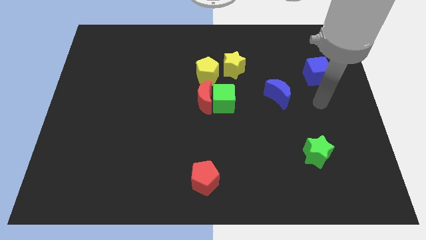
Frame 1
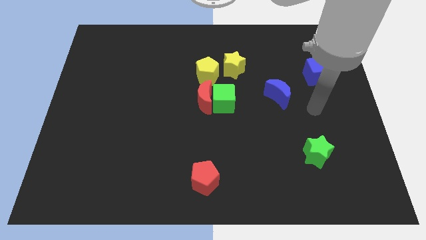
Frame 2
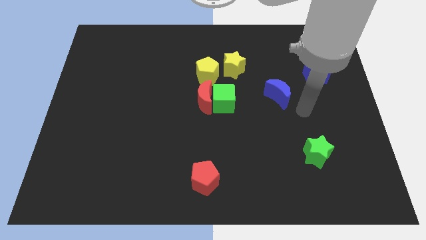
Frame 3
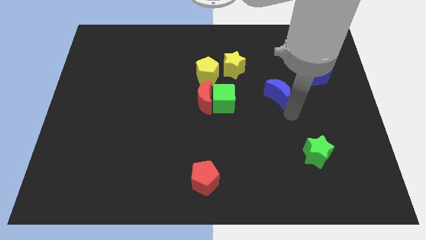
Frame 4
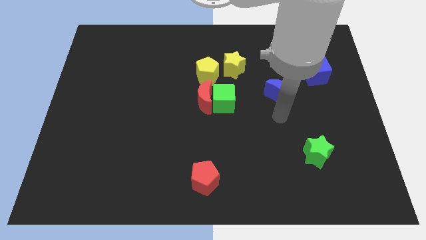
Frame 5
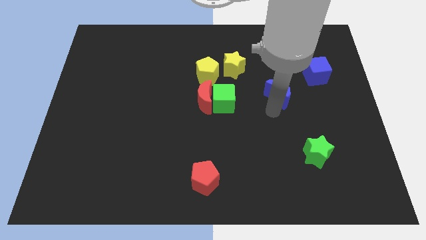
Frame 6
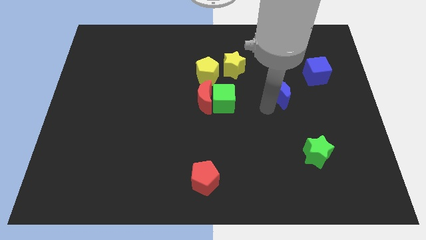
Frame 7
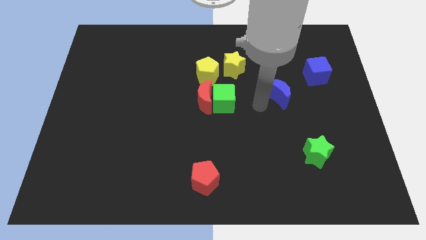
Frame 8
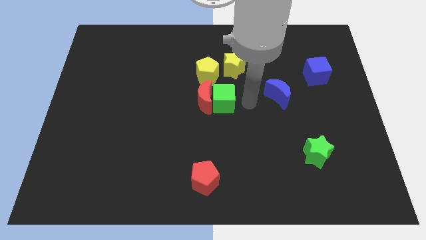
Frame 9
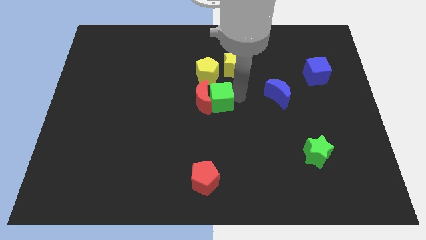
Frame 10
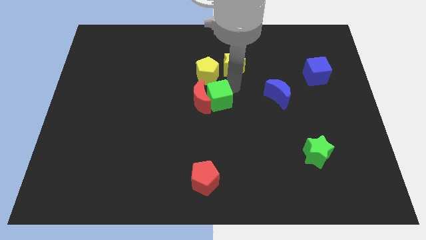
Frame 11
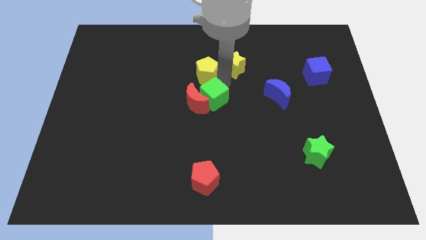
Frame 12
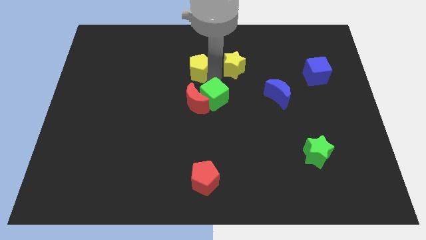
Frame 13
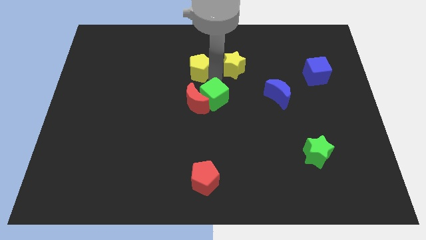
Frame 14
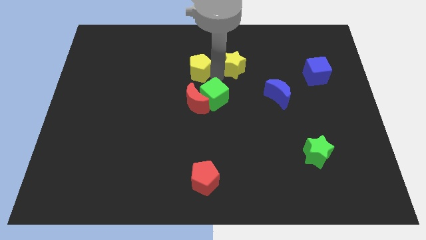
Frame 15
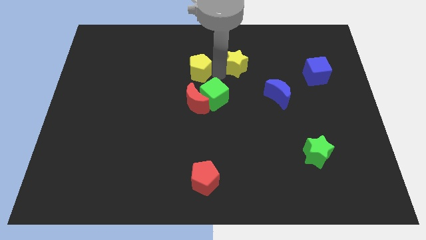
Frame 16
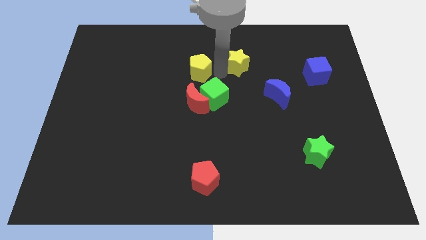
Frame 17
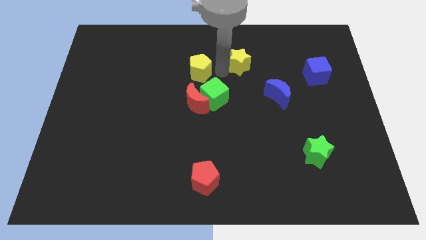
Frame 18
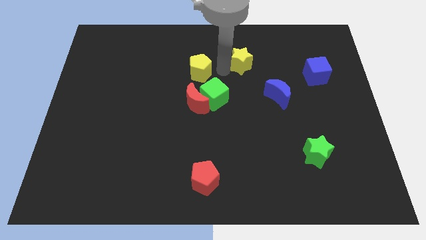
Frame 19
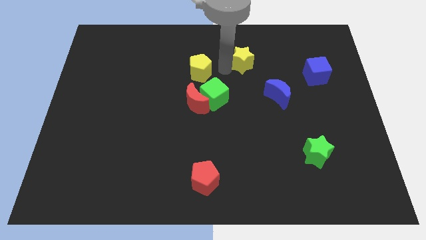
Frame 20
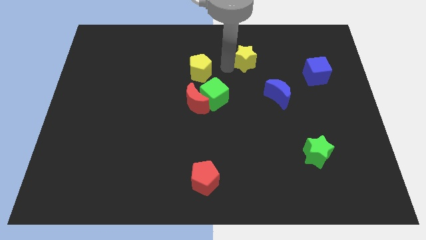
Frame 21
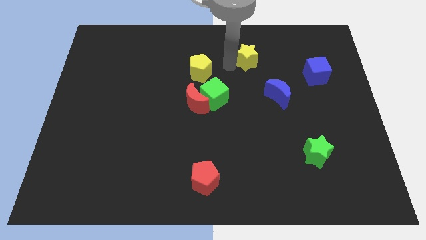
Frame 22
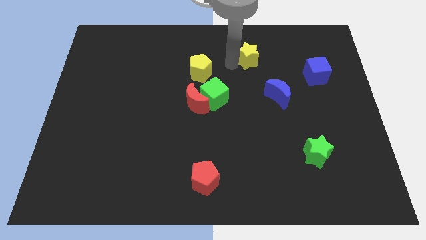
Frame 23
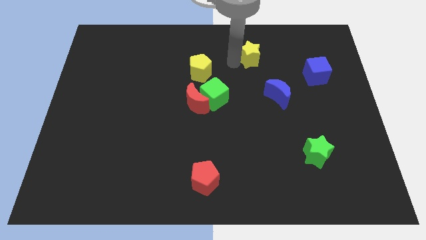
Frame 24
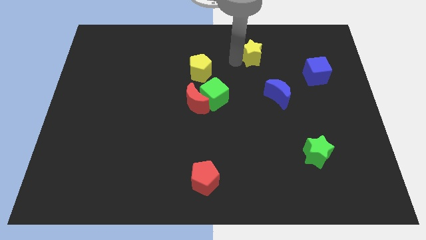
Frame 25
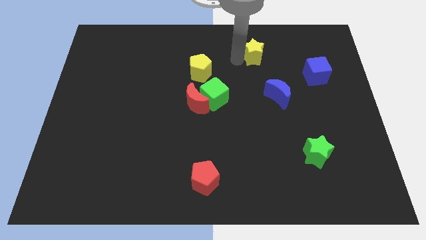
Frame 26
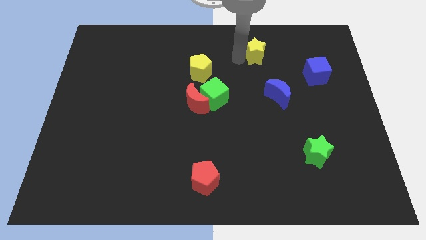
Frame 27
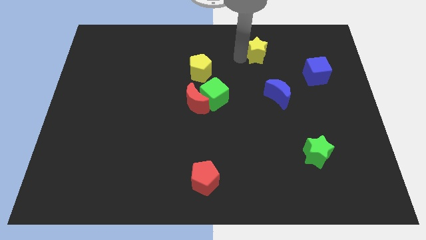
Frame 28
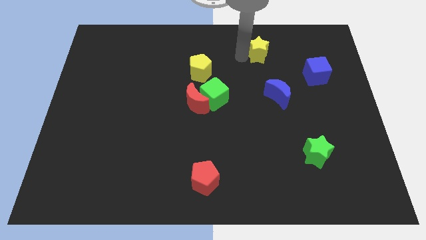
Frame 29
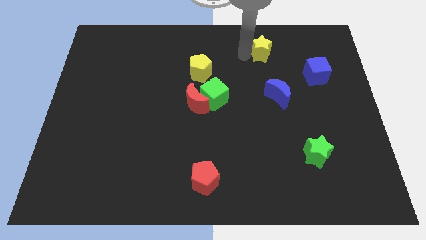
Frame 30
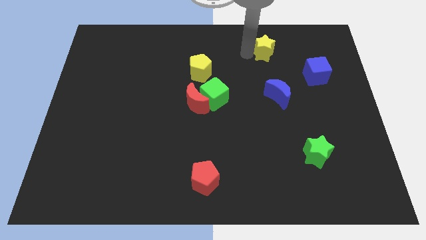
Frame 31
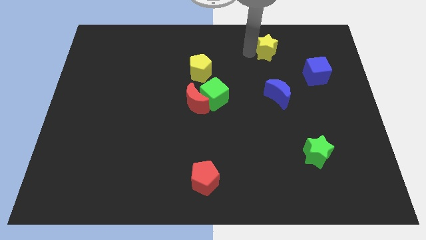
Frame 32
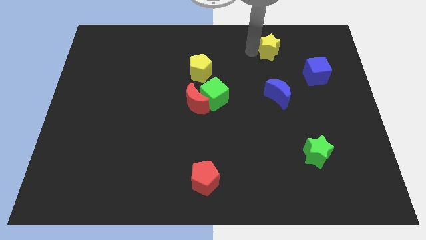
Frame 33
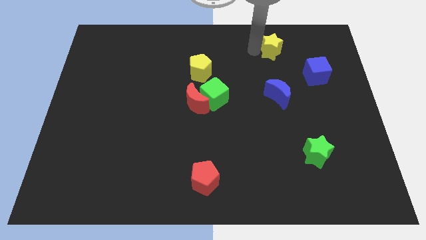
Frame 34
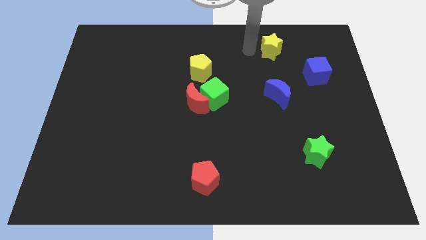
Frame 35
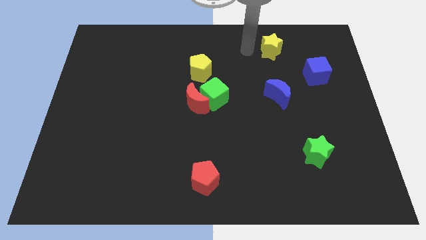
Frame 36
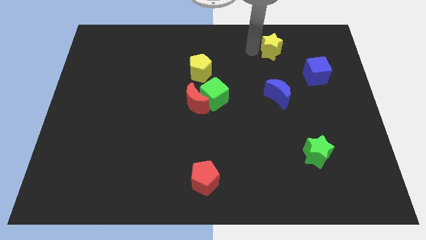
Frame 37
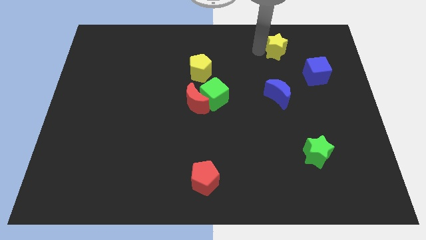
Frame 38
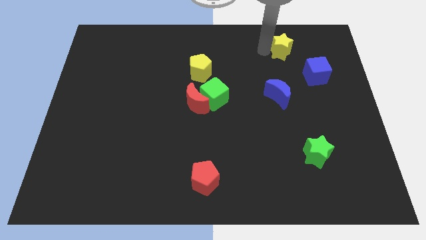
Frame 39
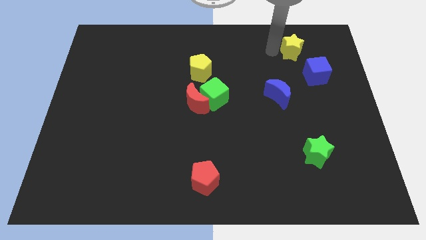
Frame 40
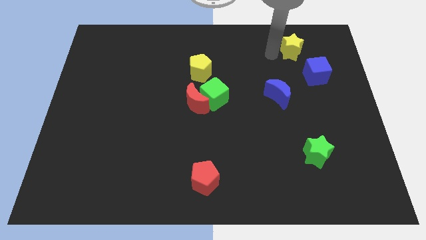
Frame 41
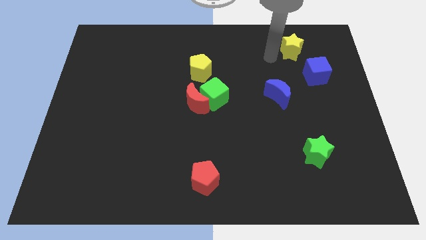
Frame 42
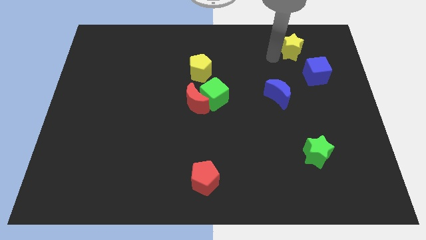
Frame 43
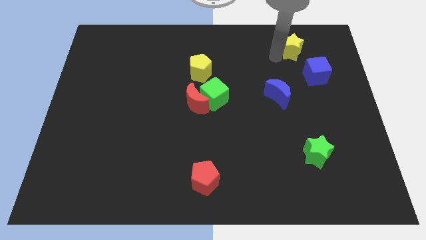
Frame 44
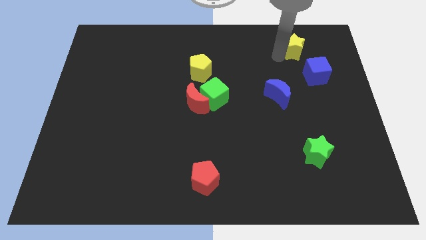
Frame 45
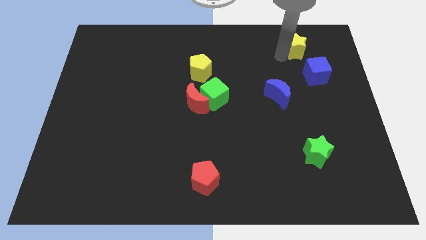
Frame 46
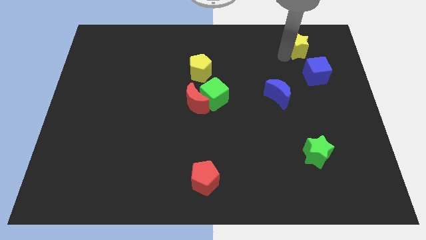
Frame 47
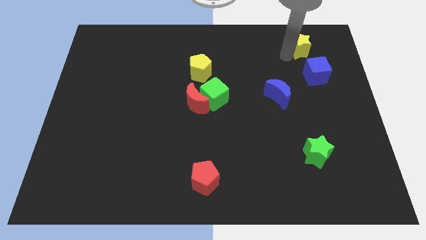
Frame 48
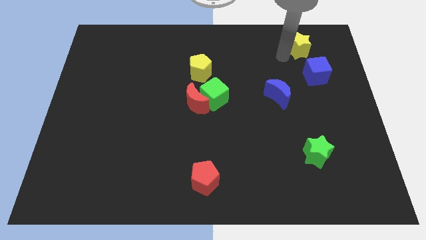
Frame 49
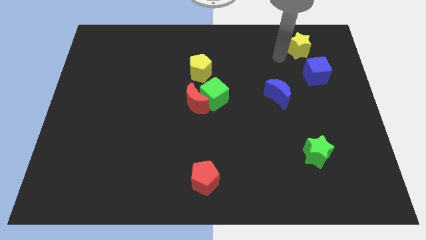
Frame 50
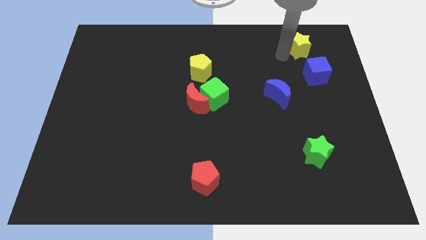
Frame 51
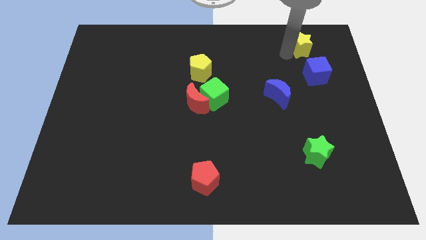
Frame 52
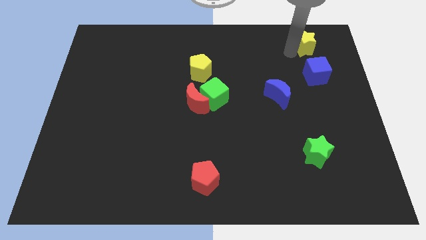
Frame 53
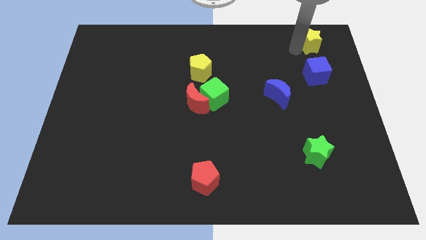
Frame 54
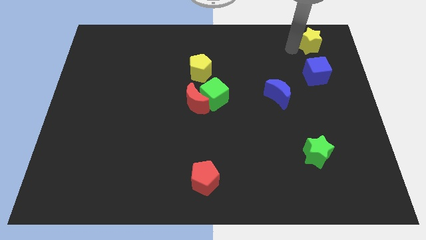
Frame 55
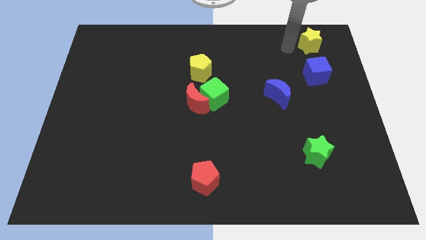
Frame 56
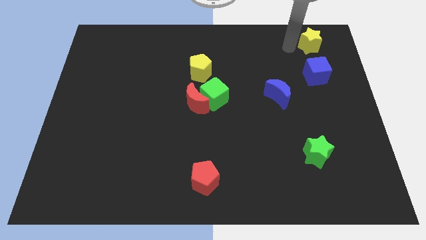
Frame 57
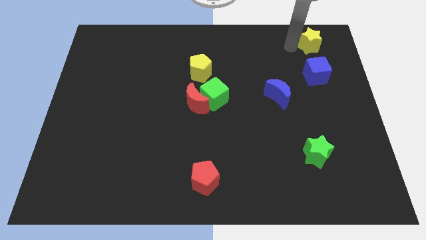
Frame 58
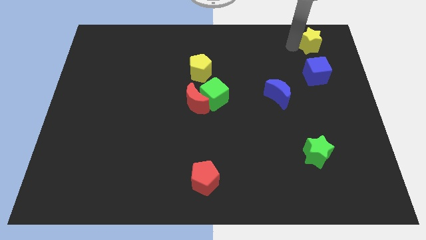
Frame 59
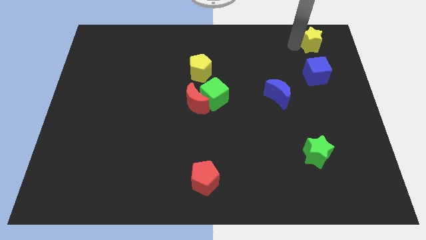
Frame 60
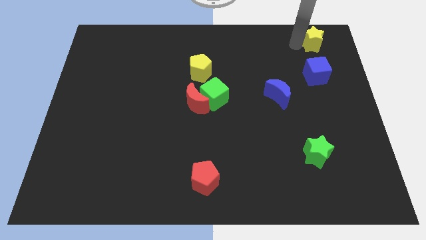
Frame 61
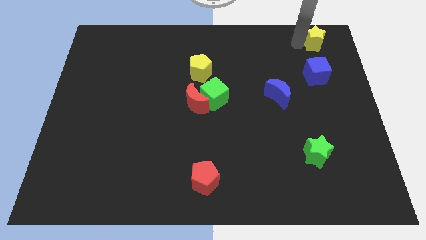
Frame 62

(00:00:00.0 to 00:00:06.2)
push the yellow star to the top right of the board
